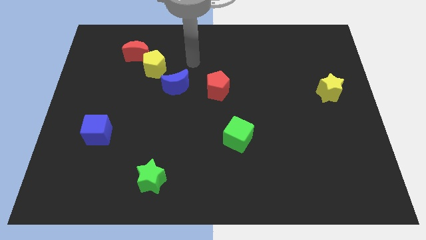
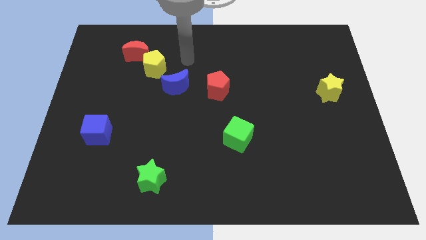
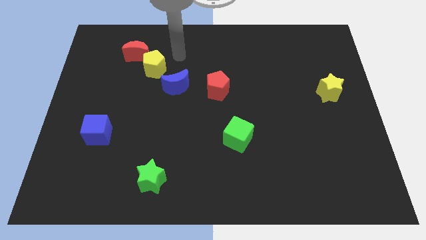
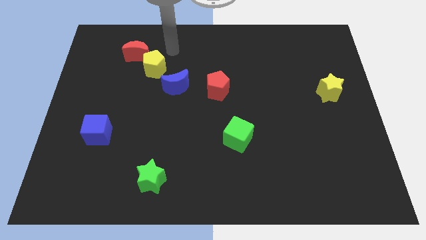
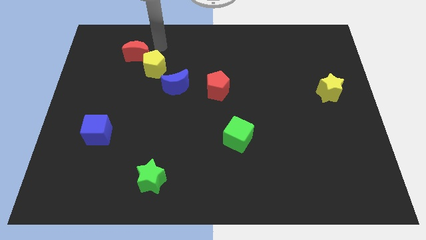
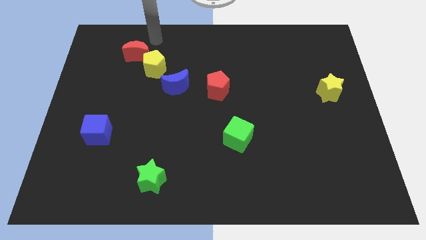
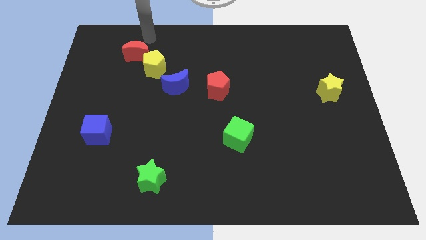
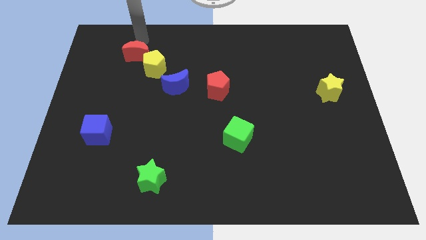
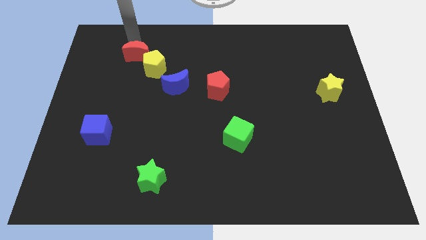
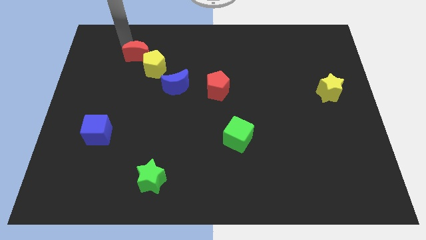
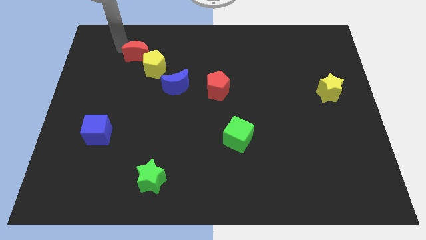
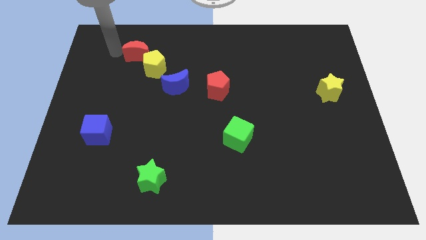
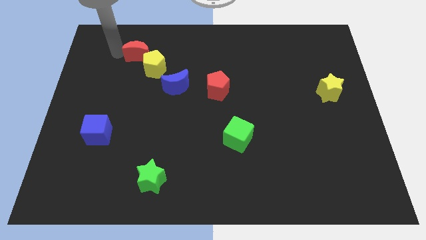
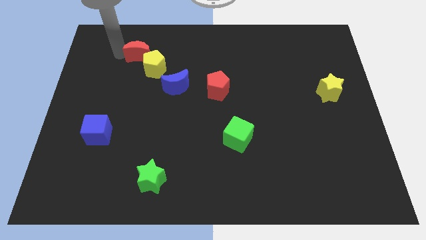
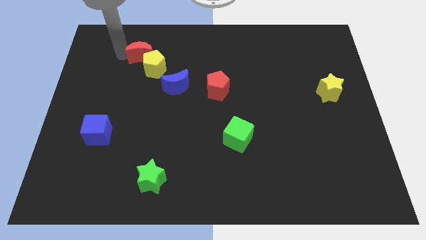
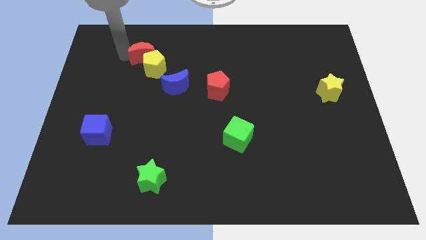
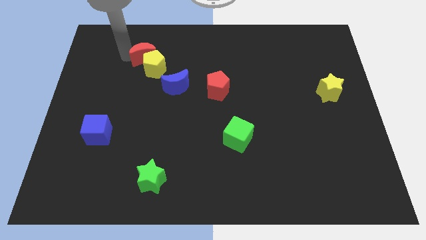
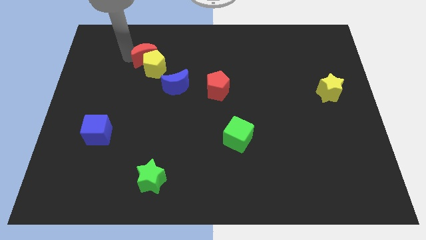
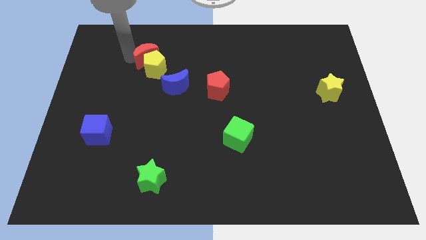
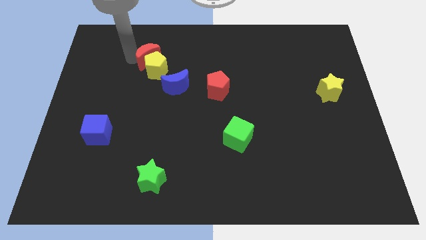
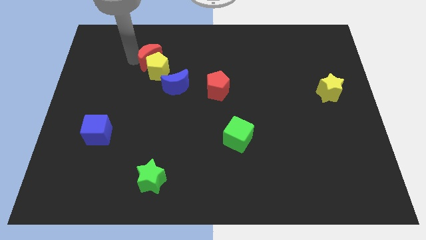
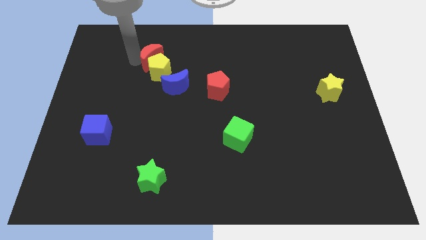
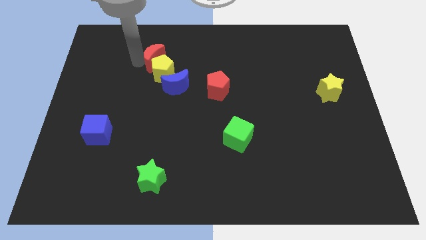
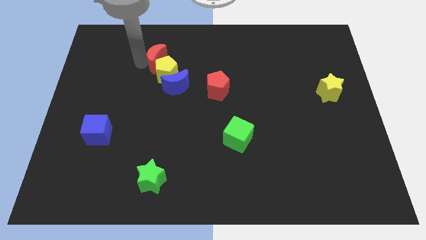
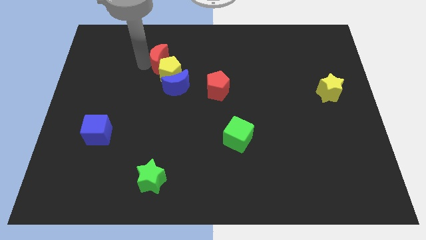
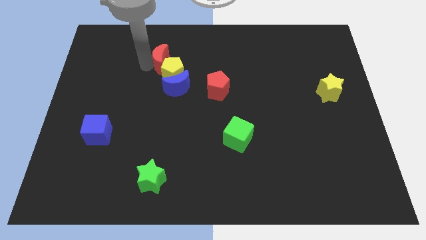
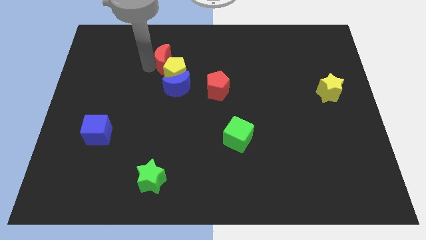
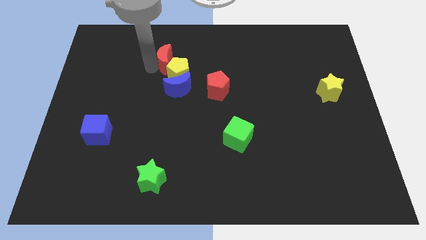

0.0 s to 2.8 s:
push the red moon to the right a little bit

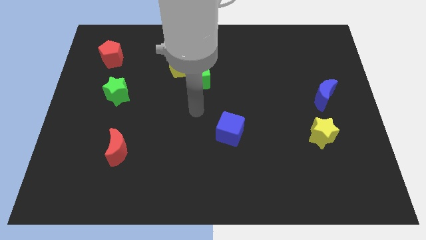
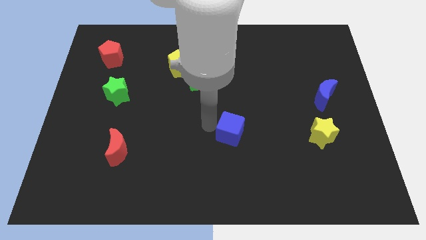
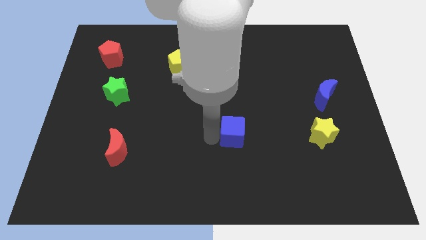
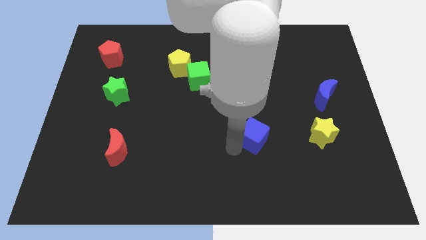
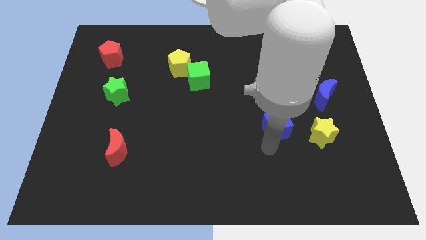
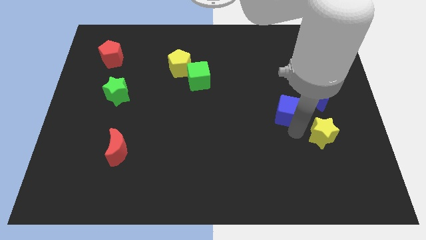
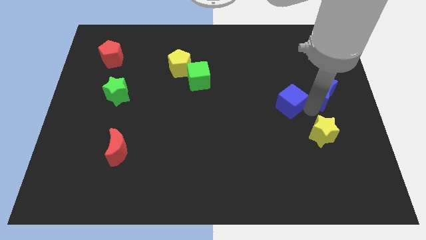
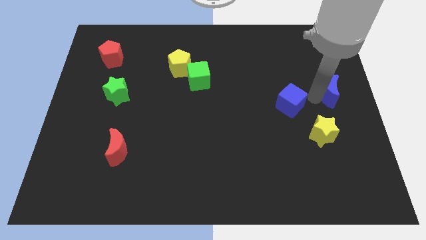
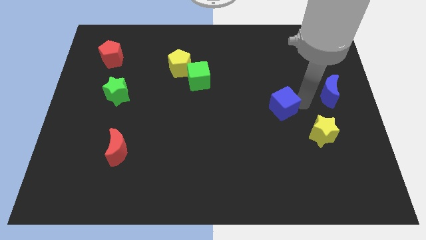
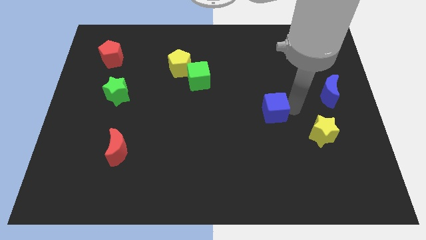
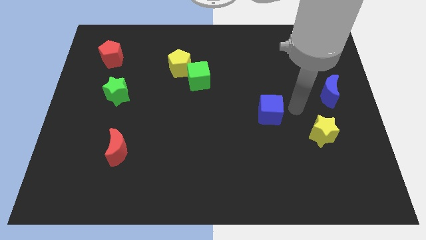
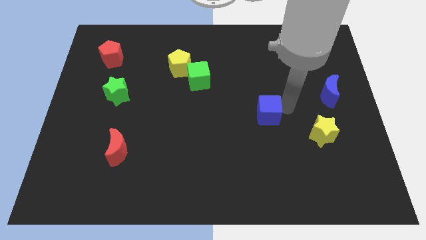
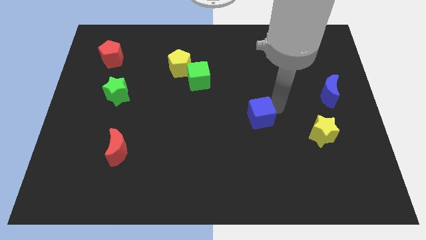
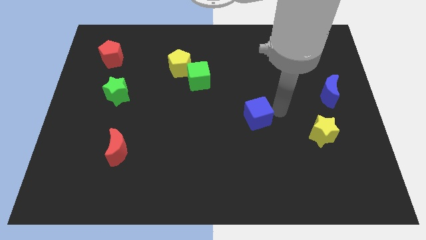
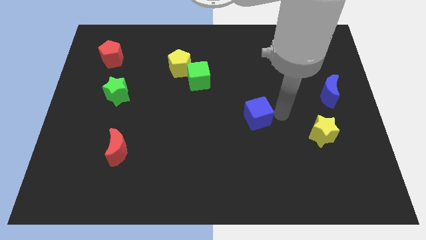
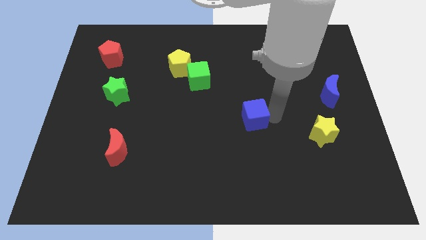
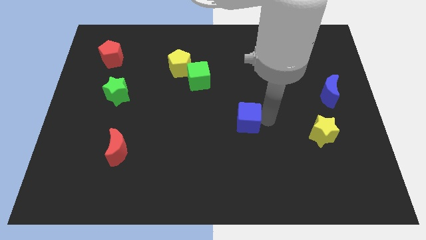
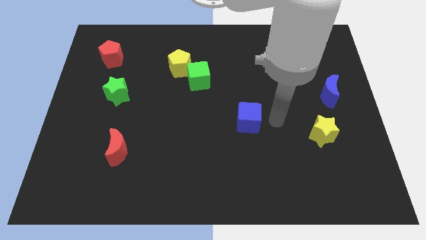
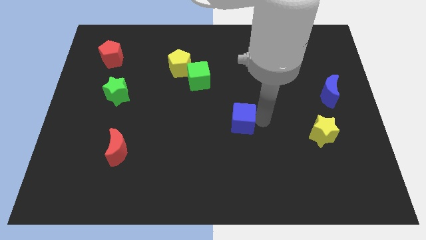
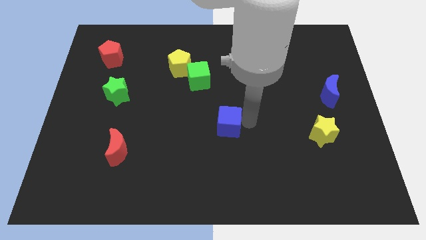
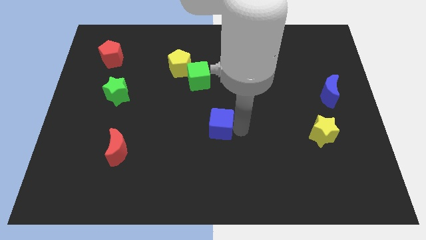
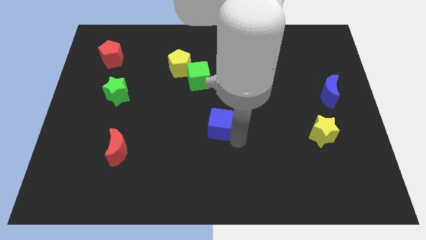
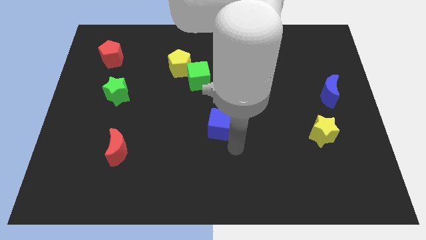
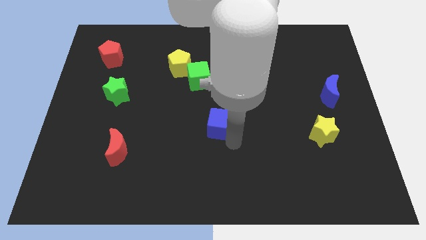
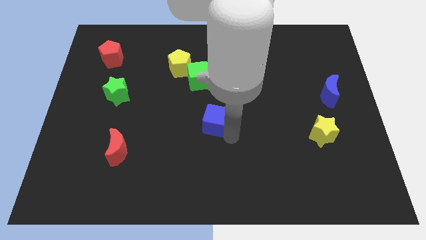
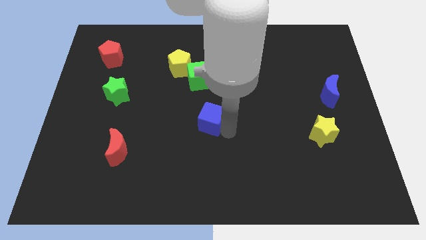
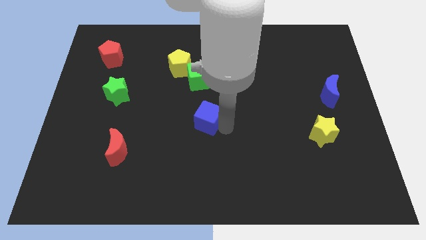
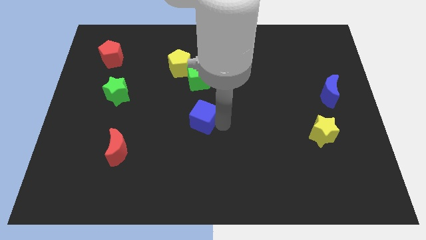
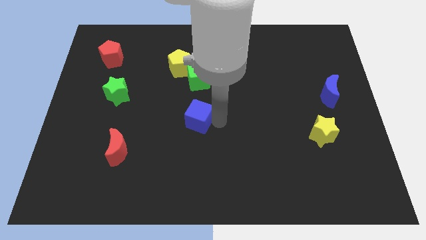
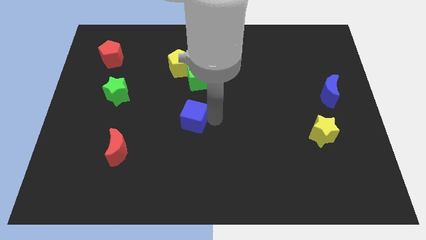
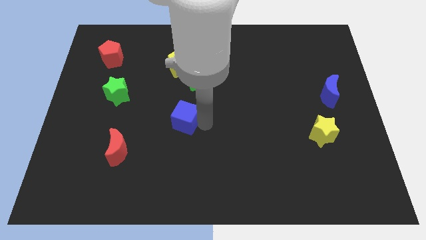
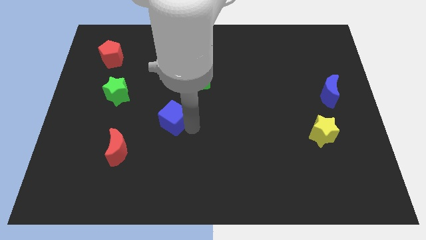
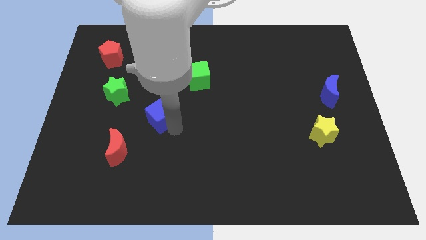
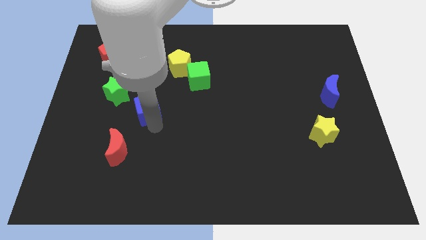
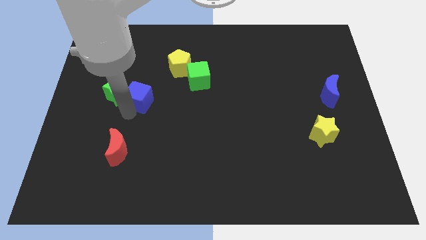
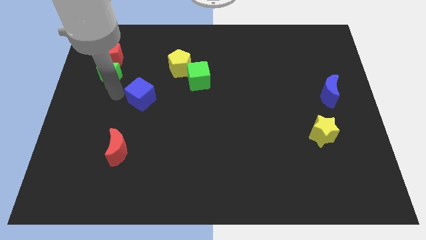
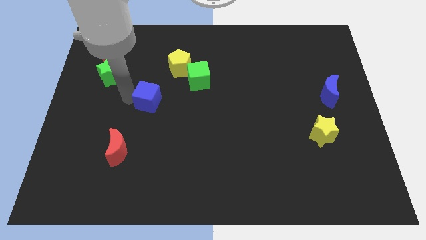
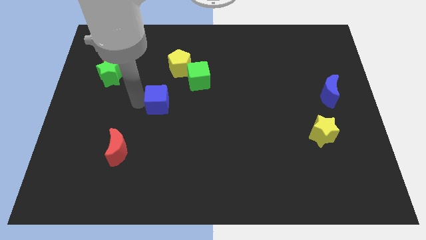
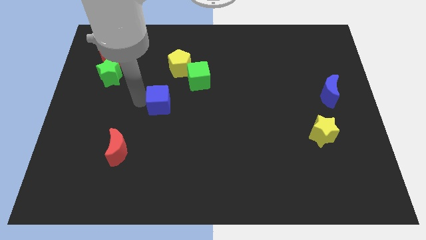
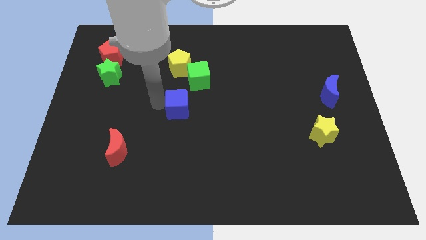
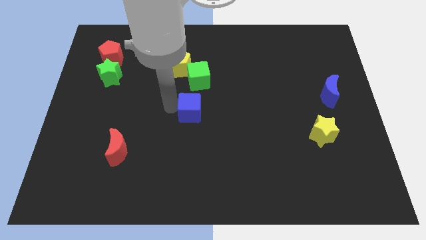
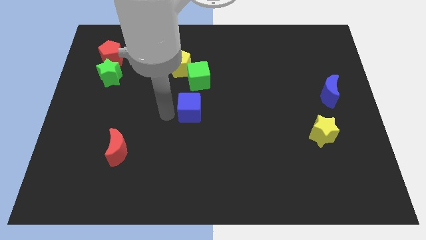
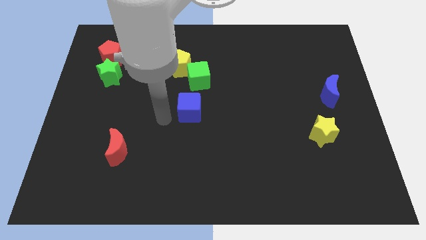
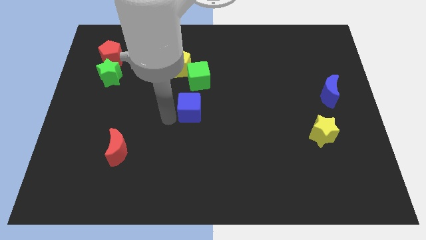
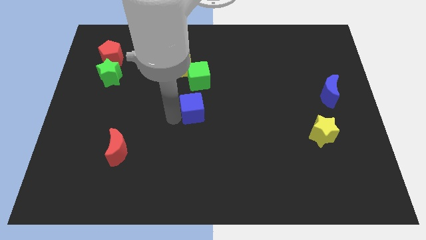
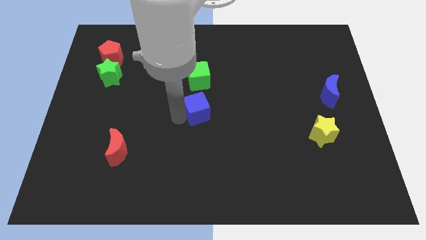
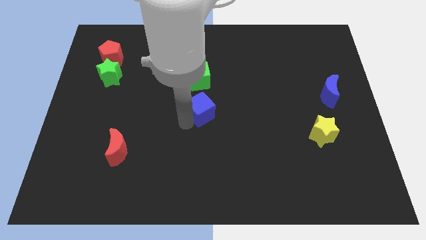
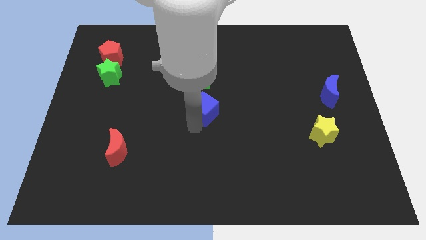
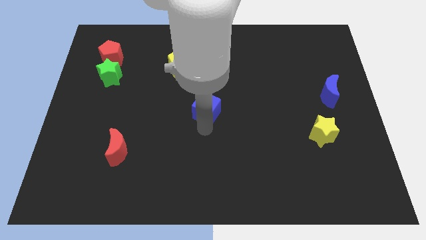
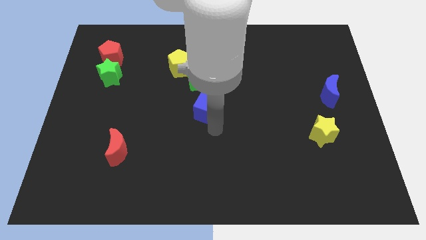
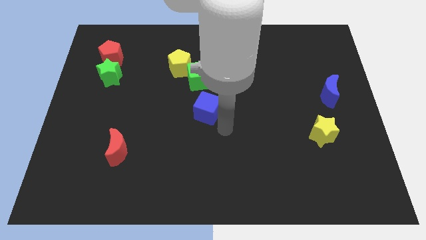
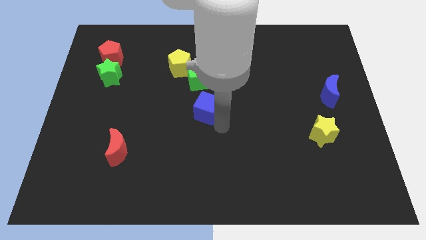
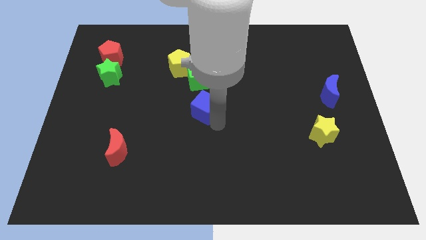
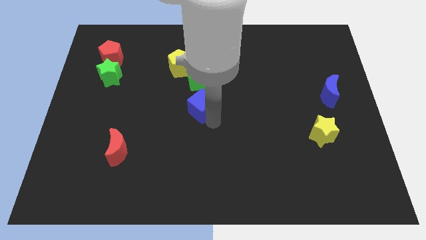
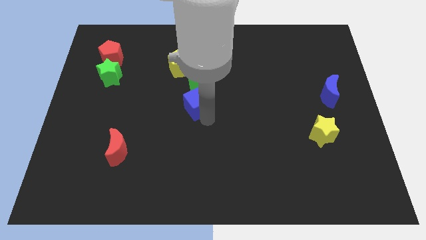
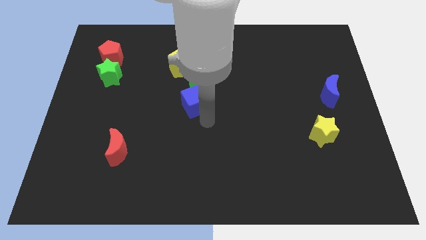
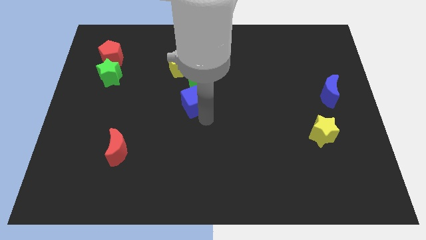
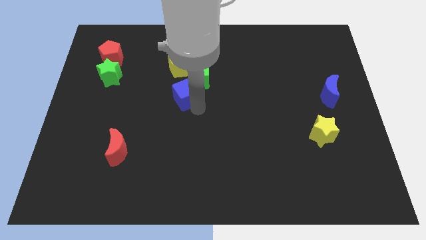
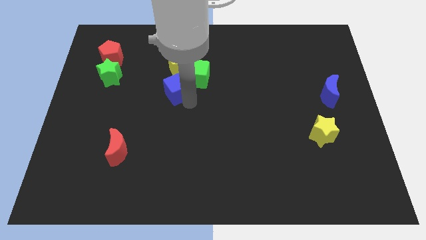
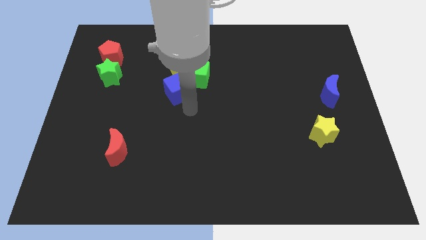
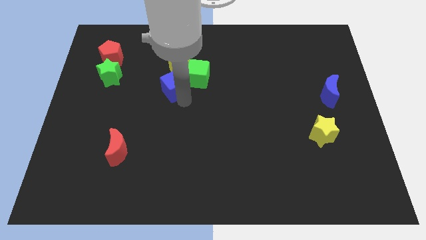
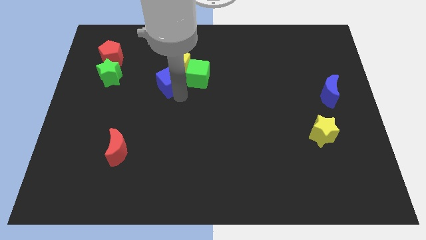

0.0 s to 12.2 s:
push the blue cube diagonally upwards and left
